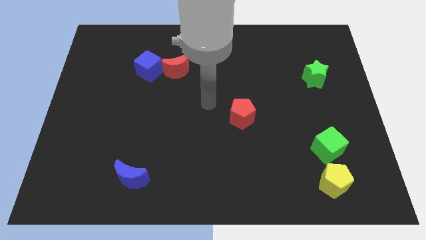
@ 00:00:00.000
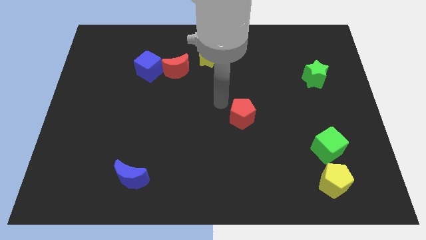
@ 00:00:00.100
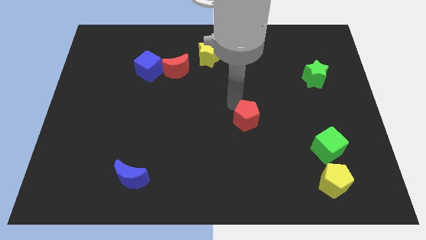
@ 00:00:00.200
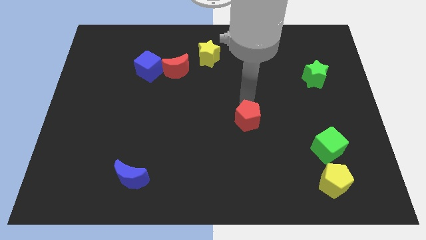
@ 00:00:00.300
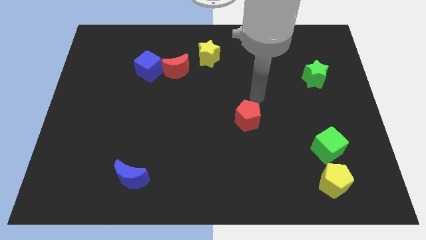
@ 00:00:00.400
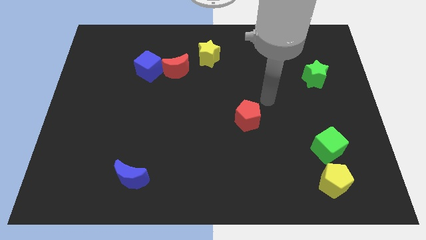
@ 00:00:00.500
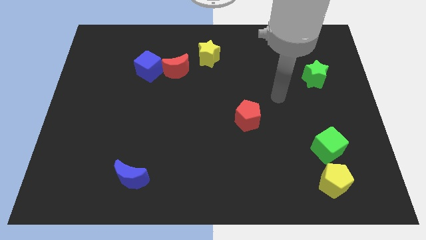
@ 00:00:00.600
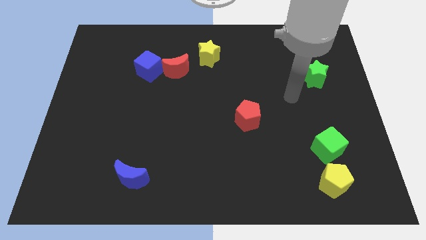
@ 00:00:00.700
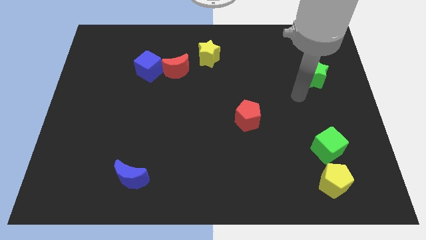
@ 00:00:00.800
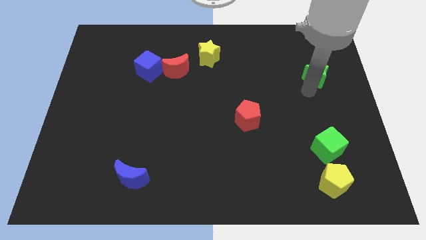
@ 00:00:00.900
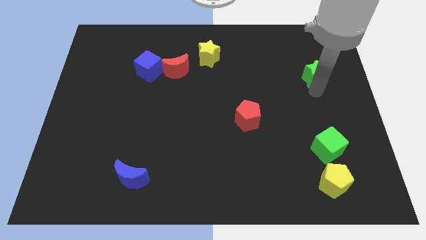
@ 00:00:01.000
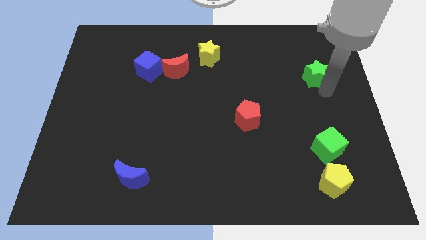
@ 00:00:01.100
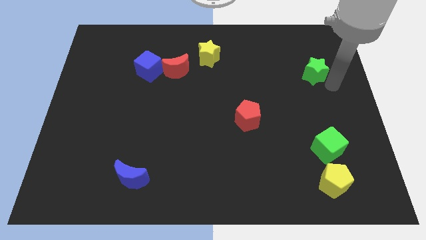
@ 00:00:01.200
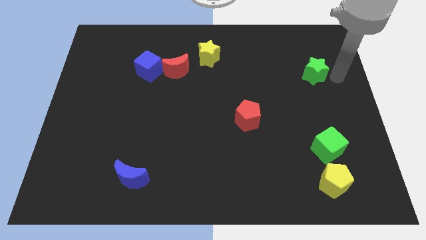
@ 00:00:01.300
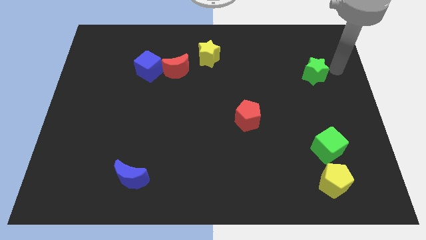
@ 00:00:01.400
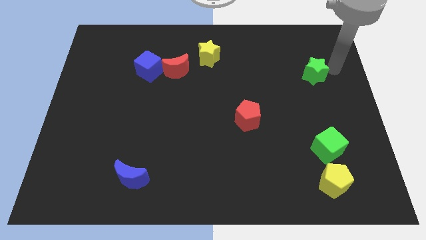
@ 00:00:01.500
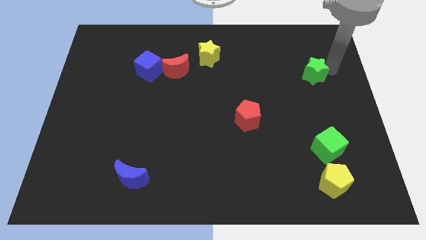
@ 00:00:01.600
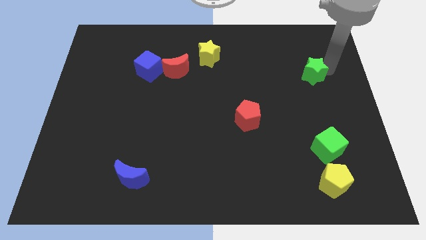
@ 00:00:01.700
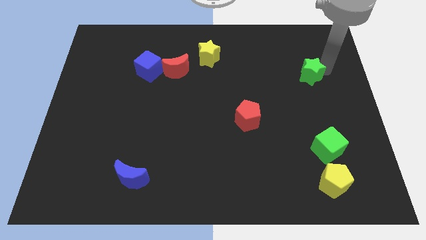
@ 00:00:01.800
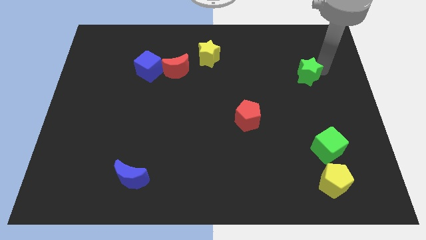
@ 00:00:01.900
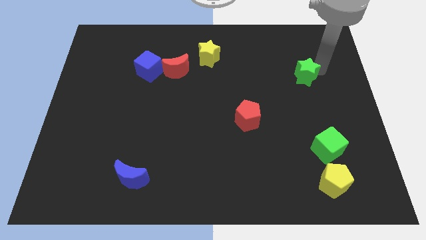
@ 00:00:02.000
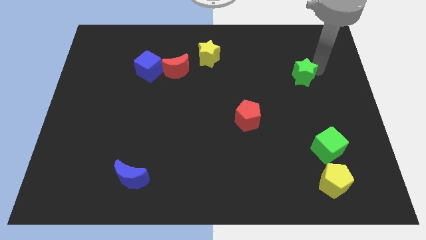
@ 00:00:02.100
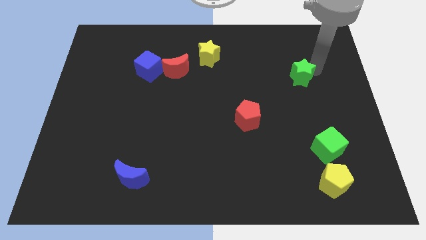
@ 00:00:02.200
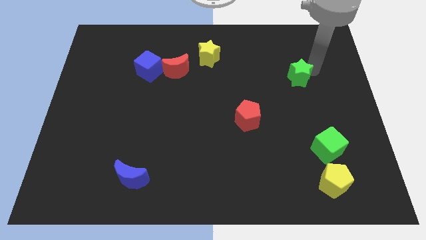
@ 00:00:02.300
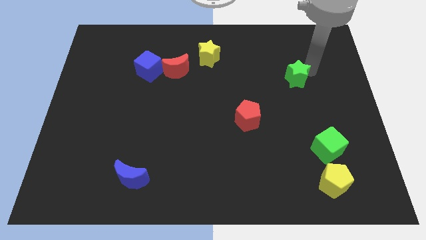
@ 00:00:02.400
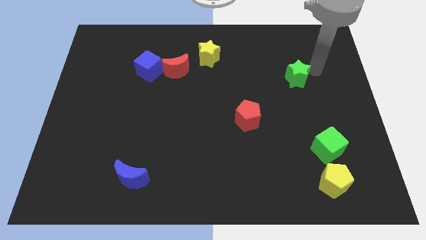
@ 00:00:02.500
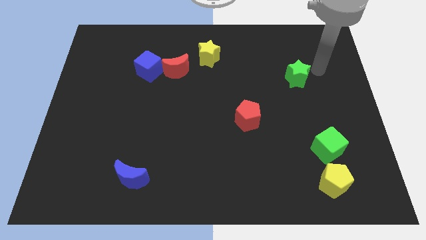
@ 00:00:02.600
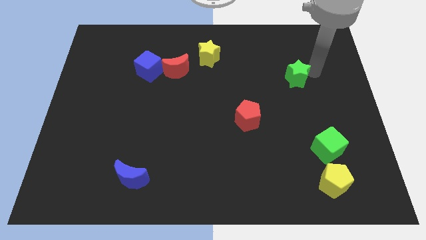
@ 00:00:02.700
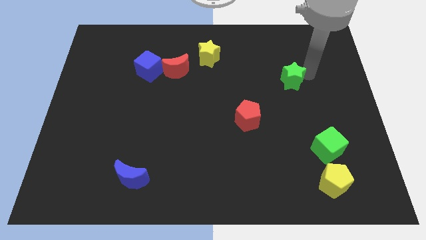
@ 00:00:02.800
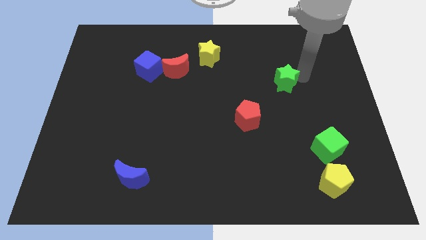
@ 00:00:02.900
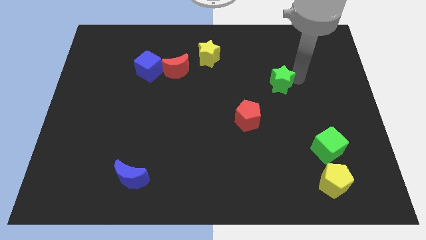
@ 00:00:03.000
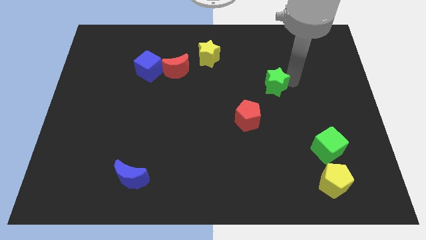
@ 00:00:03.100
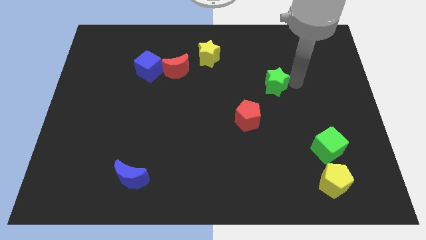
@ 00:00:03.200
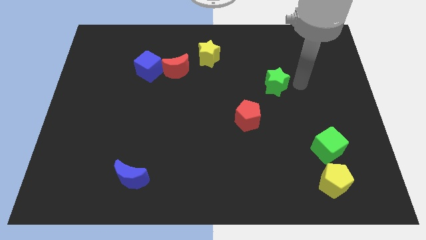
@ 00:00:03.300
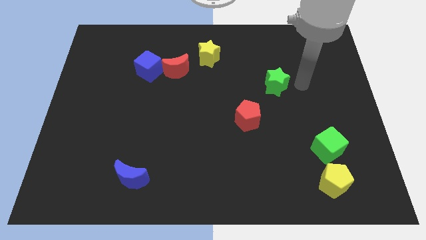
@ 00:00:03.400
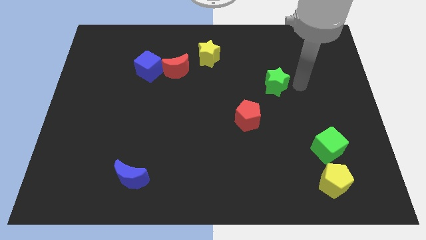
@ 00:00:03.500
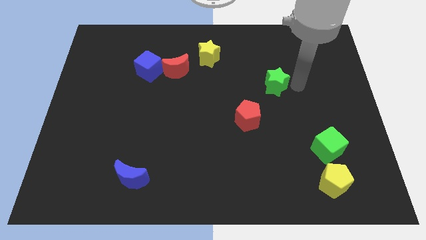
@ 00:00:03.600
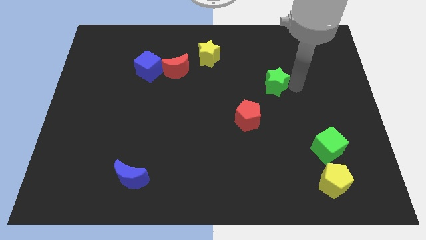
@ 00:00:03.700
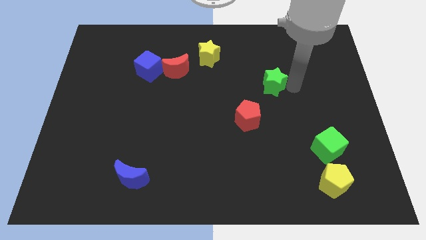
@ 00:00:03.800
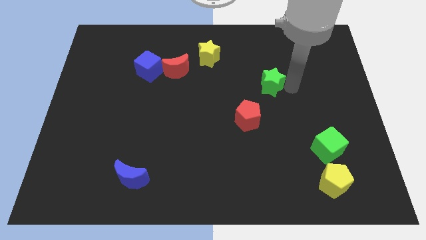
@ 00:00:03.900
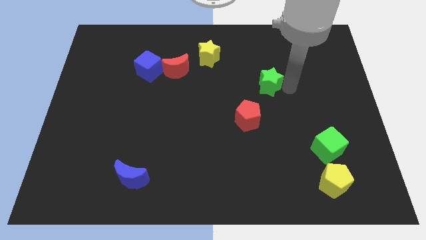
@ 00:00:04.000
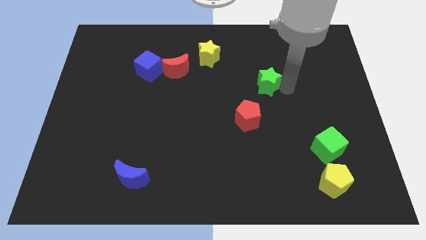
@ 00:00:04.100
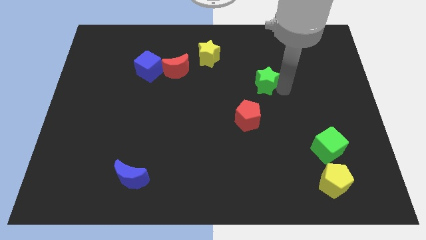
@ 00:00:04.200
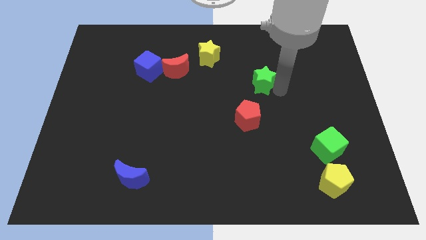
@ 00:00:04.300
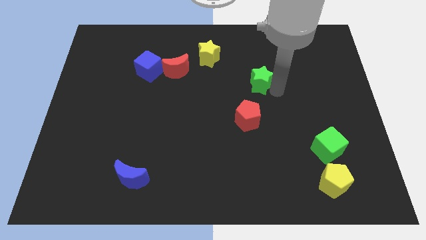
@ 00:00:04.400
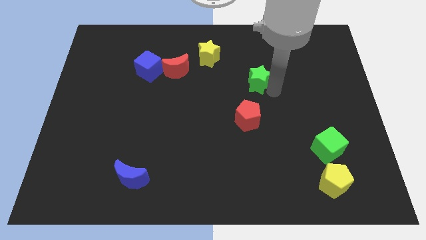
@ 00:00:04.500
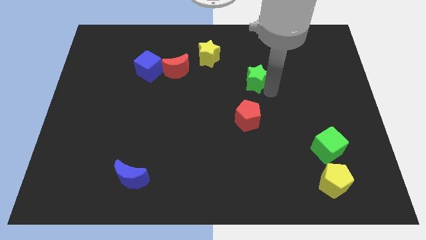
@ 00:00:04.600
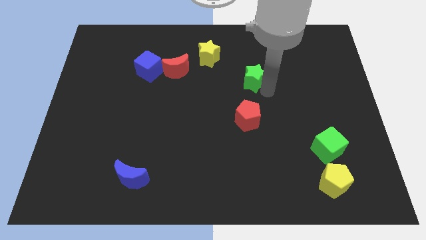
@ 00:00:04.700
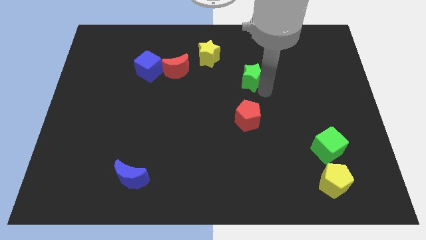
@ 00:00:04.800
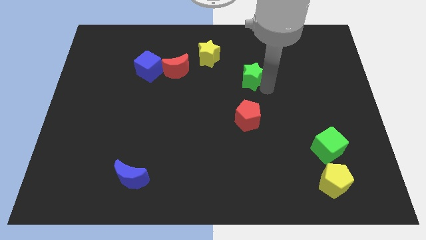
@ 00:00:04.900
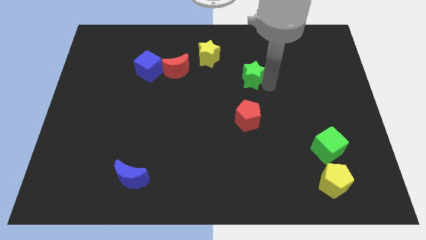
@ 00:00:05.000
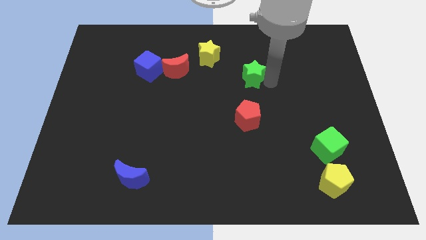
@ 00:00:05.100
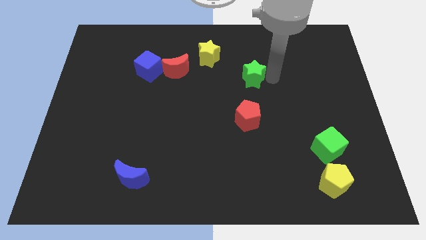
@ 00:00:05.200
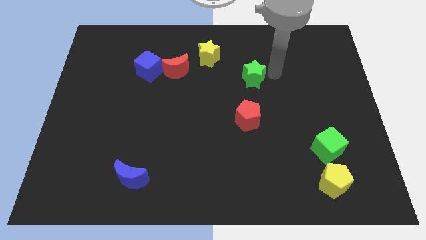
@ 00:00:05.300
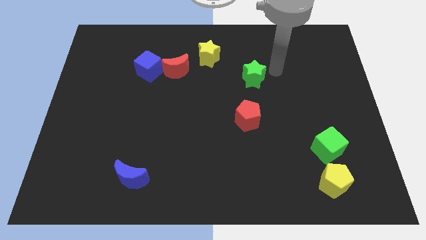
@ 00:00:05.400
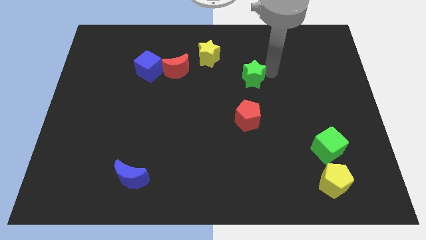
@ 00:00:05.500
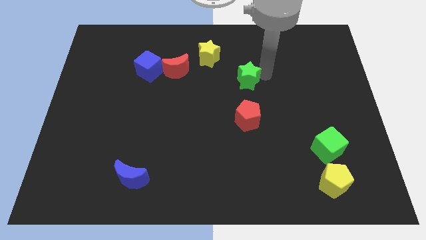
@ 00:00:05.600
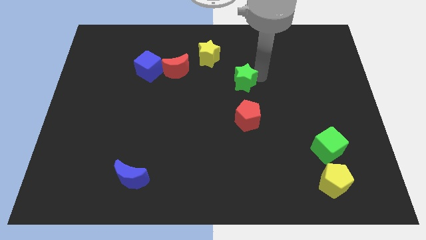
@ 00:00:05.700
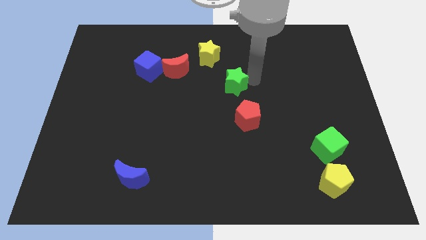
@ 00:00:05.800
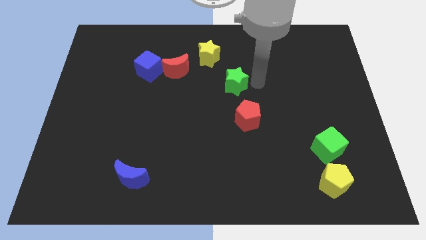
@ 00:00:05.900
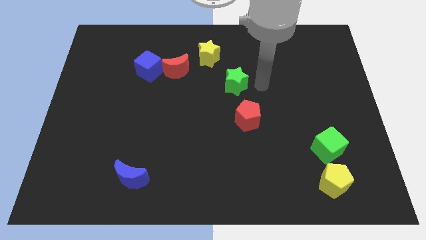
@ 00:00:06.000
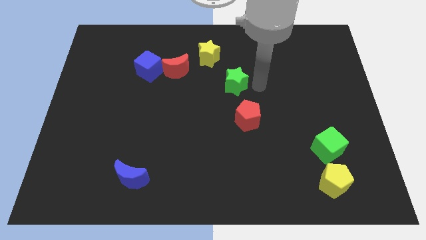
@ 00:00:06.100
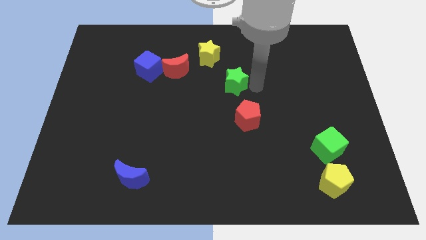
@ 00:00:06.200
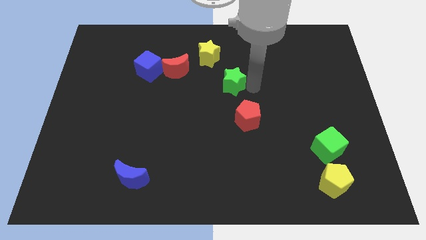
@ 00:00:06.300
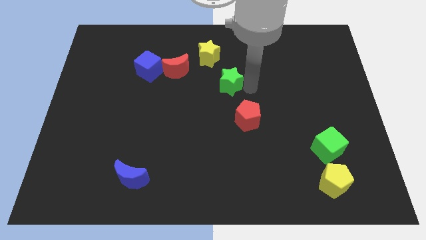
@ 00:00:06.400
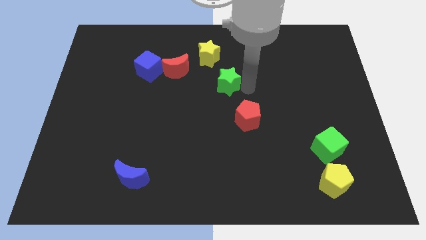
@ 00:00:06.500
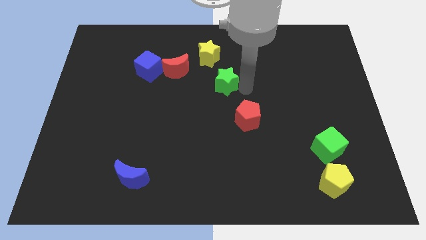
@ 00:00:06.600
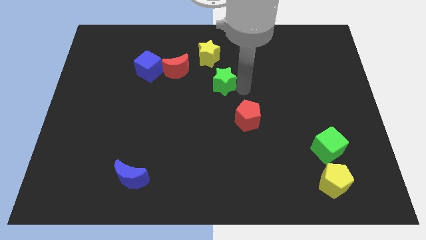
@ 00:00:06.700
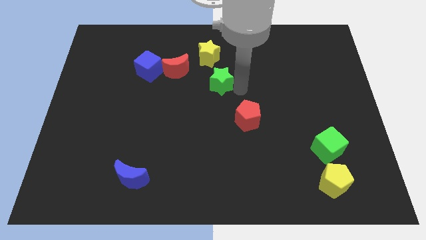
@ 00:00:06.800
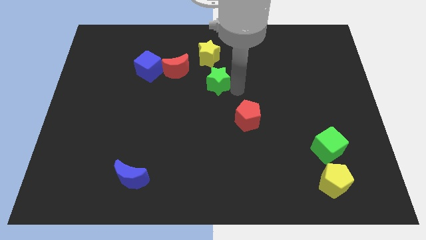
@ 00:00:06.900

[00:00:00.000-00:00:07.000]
push the green star diagonally down and to the right of the red moon
